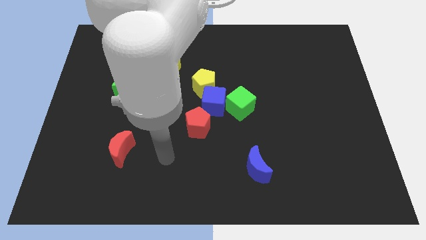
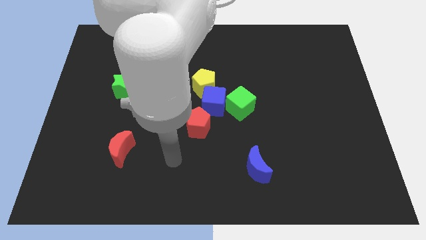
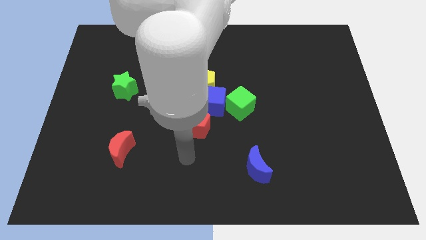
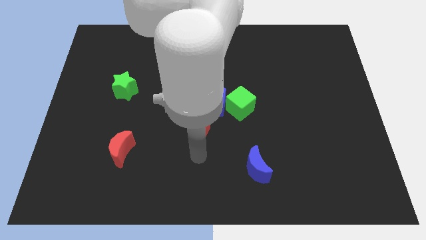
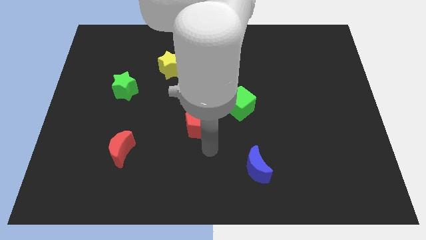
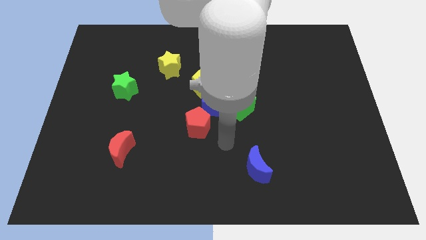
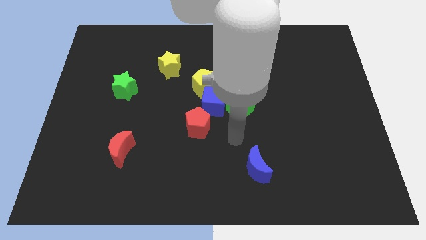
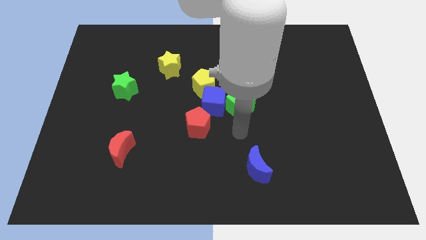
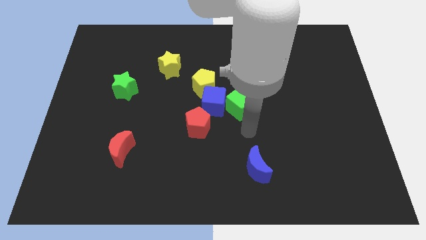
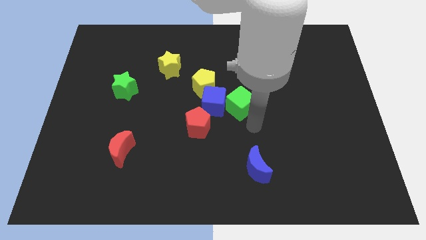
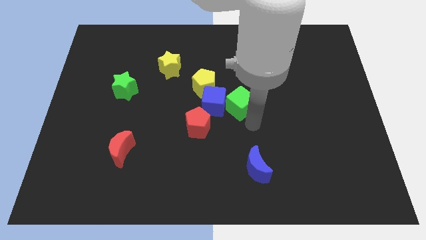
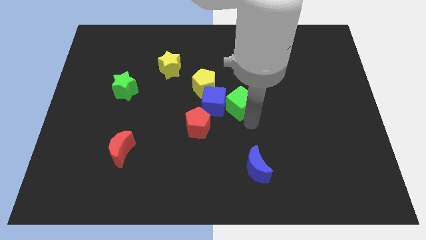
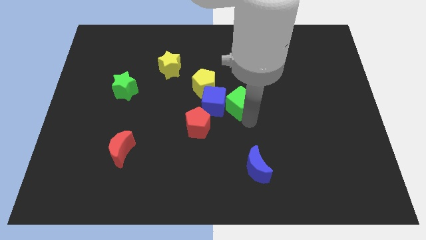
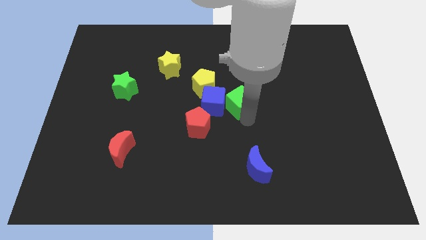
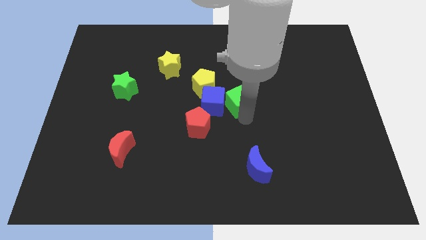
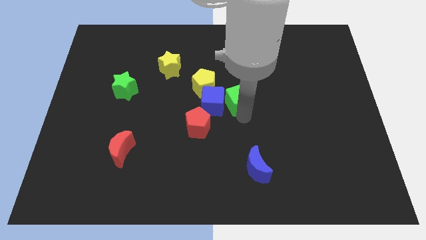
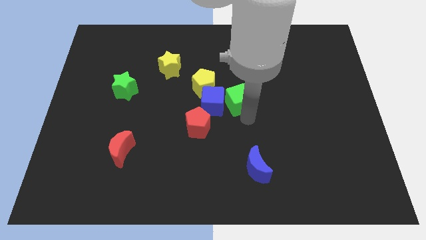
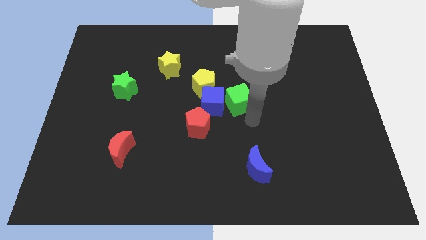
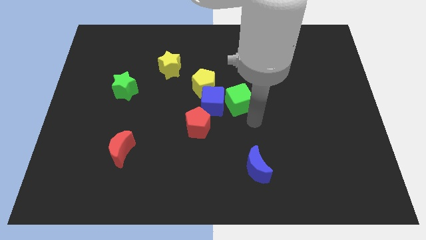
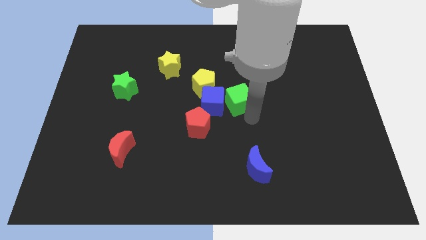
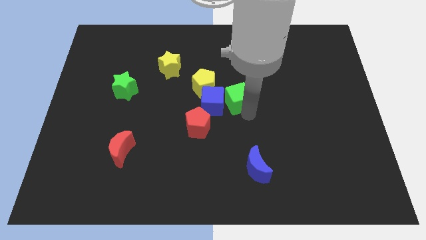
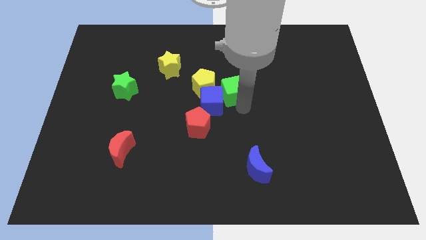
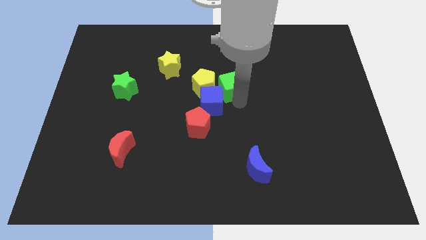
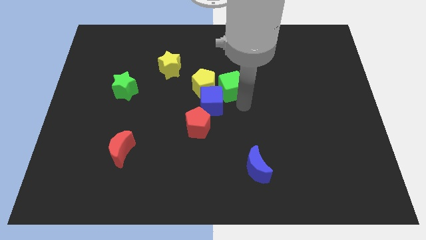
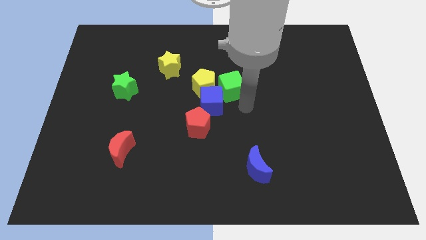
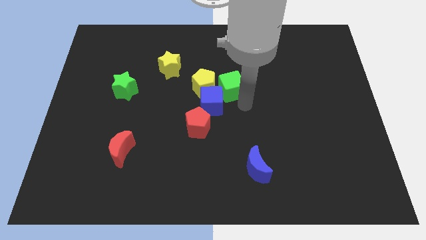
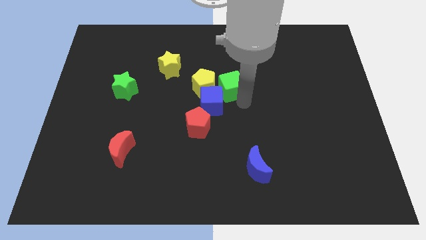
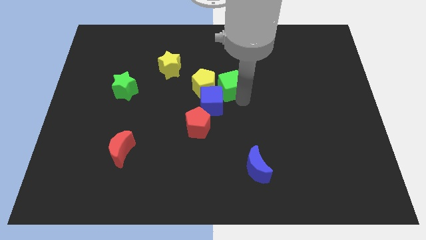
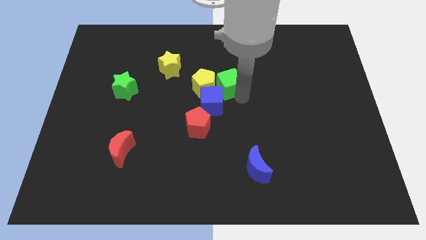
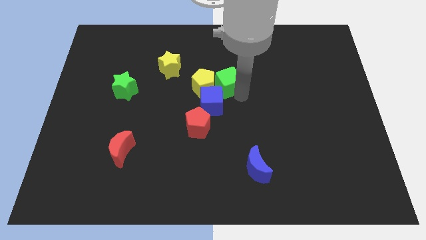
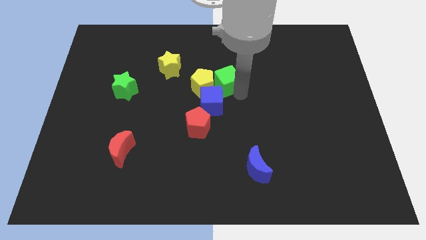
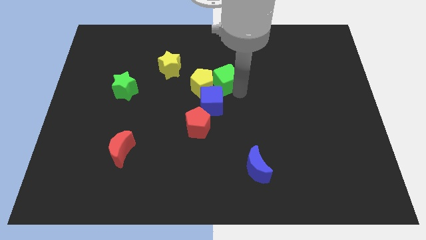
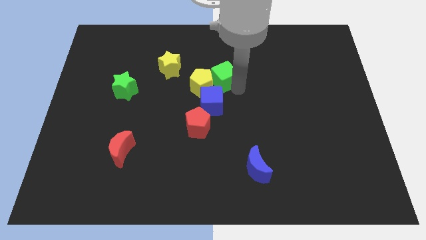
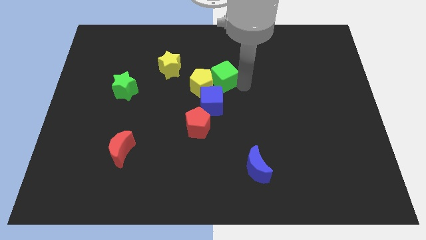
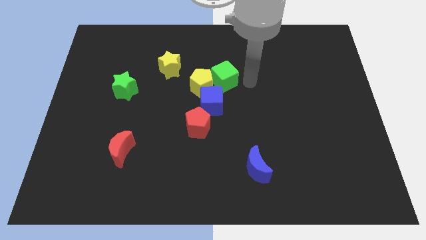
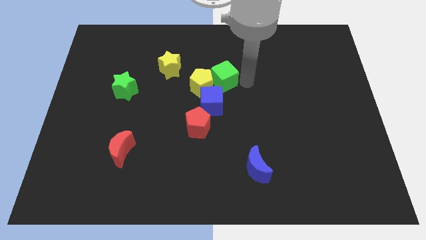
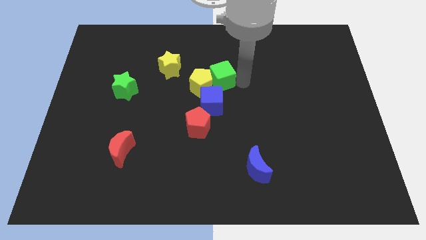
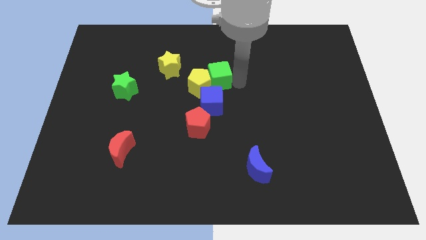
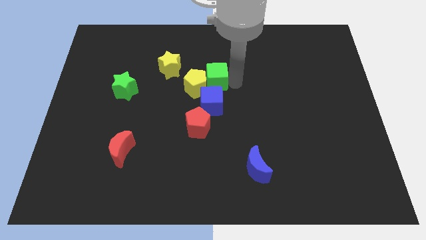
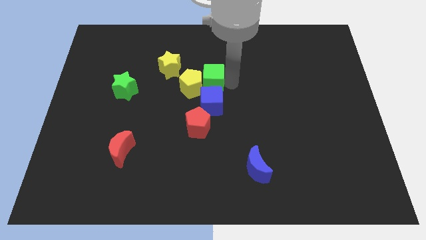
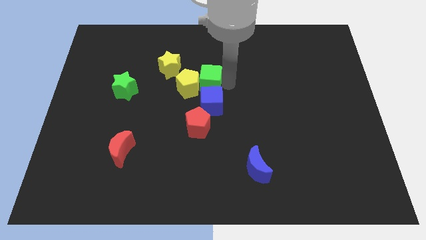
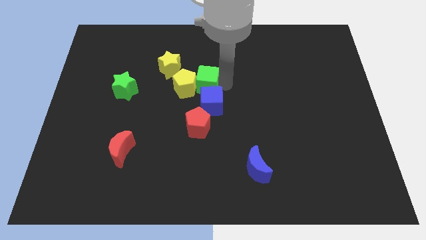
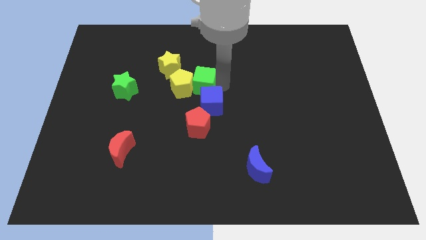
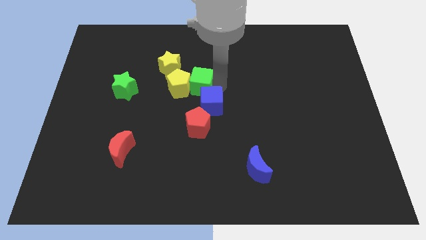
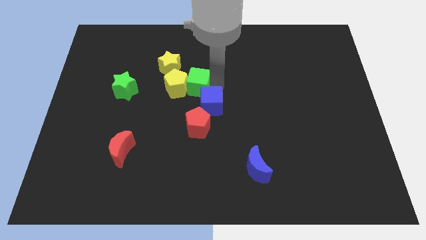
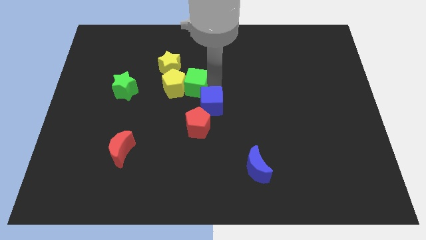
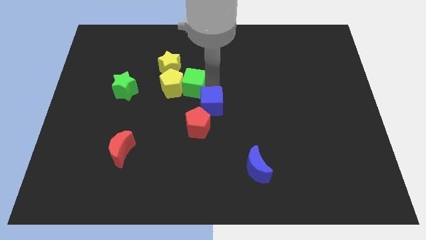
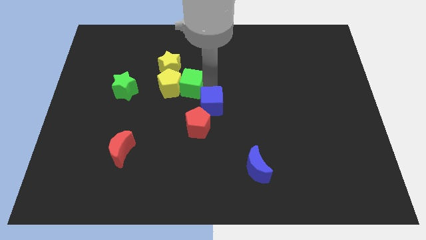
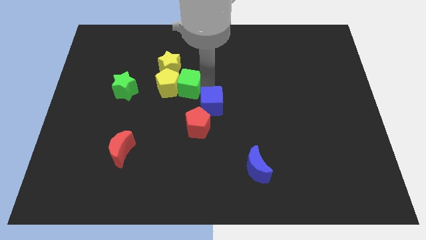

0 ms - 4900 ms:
move the green cube to the bottom of the yellow star

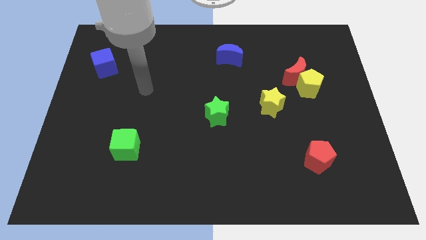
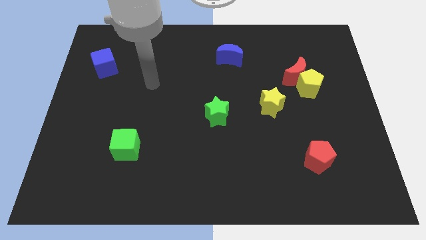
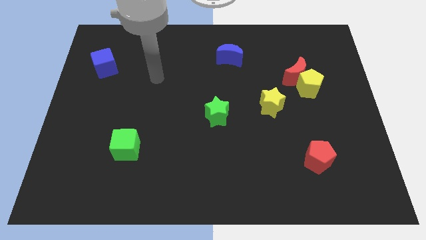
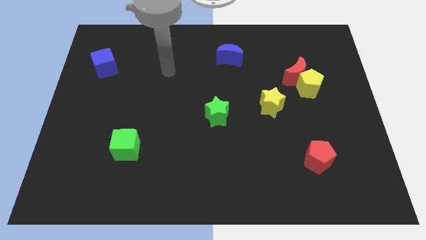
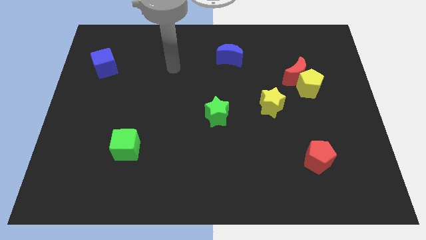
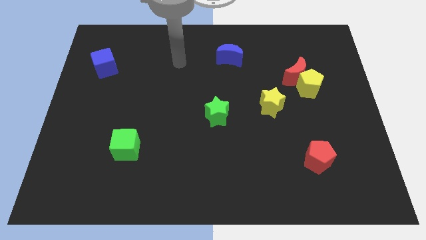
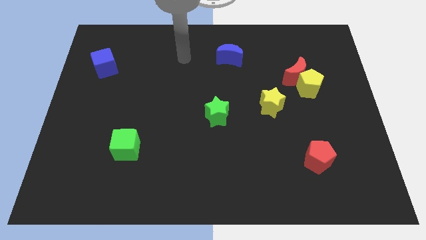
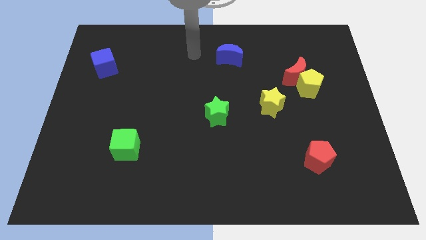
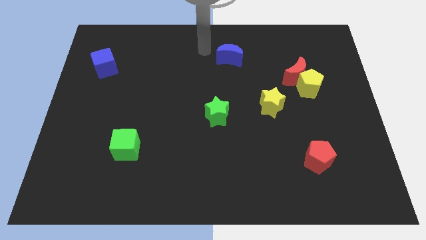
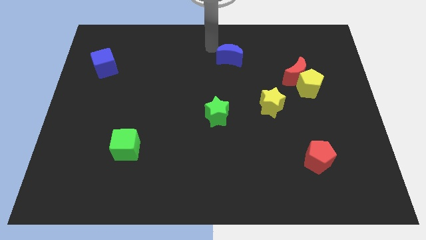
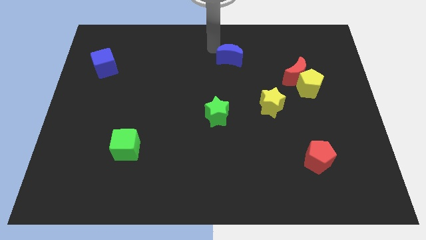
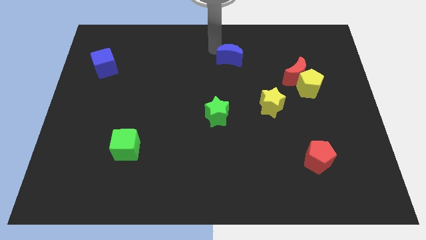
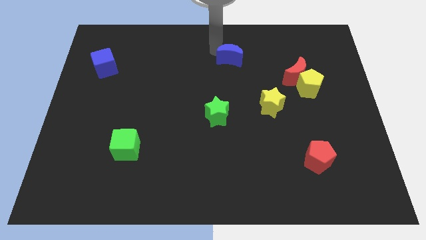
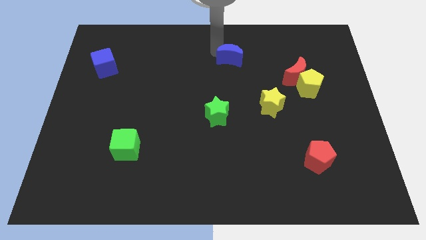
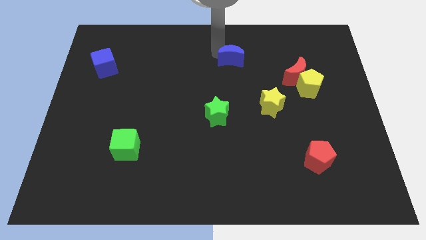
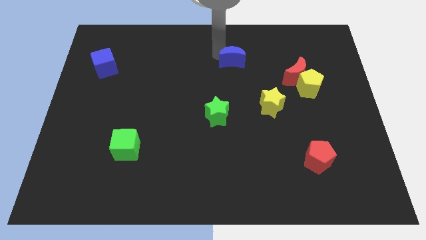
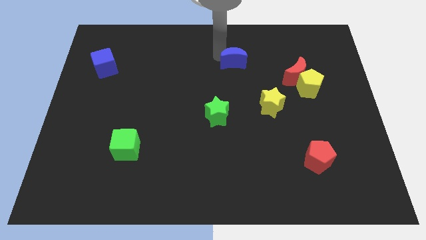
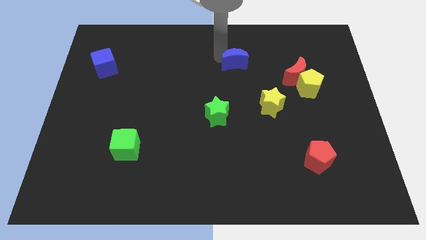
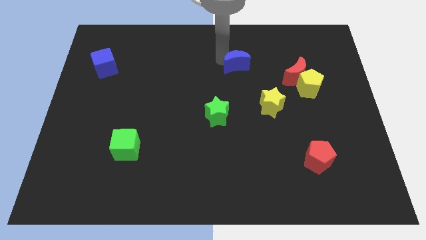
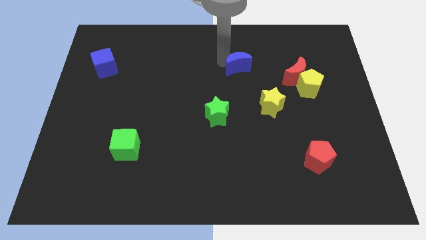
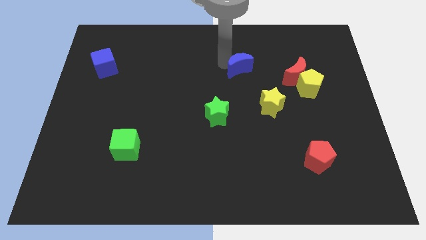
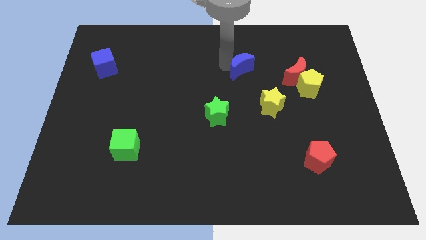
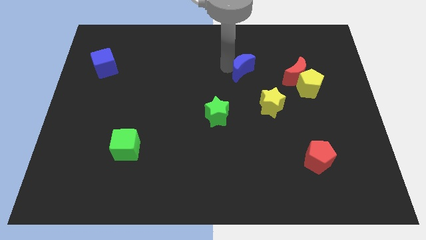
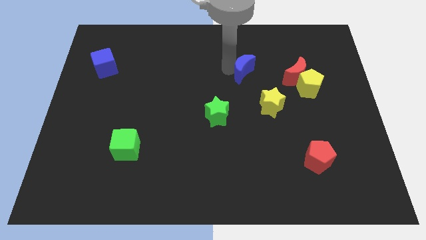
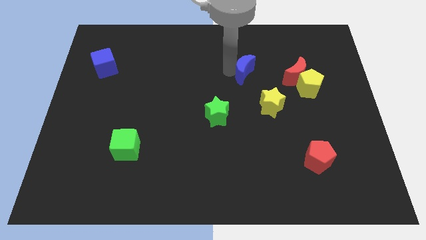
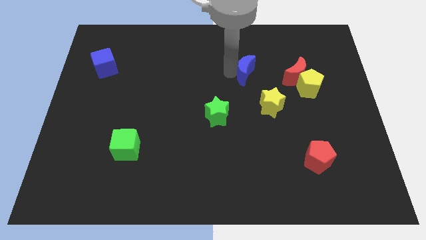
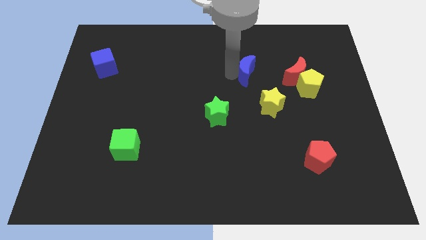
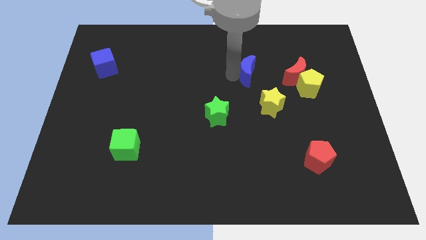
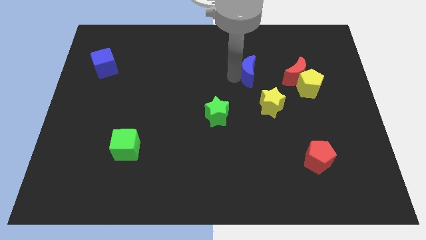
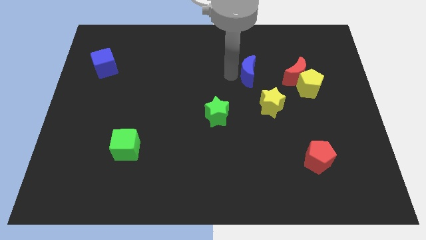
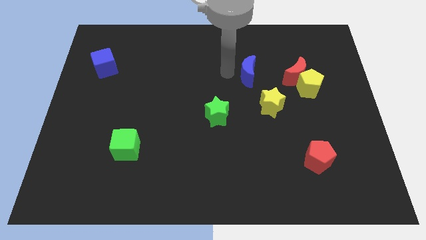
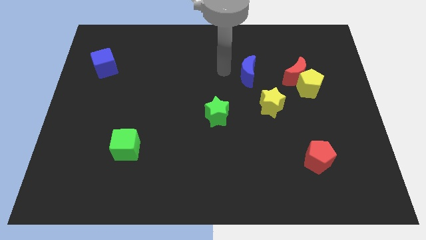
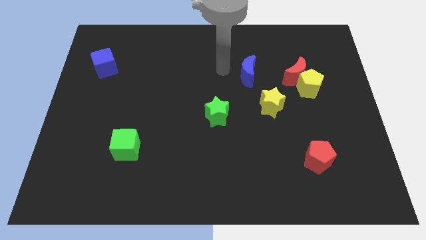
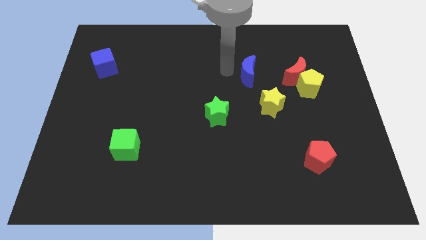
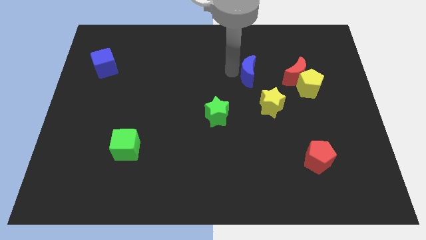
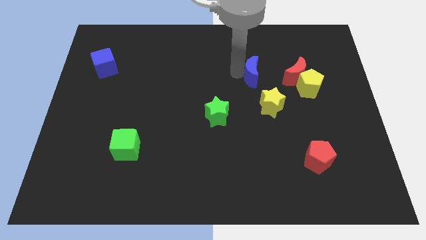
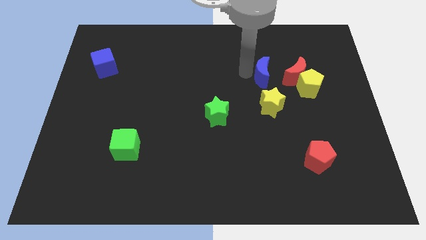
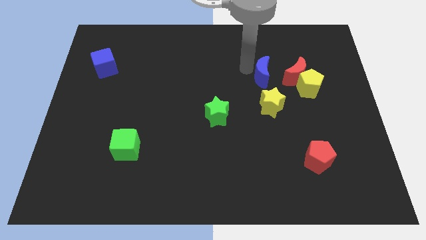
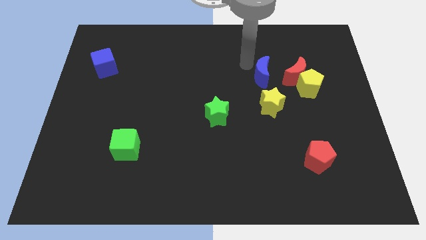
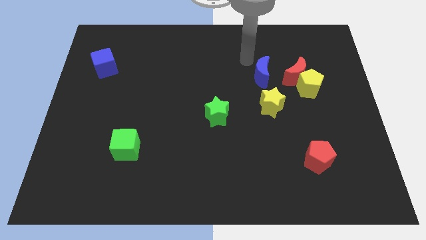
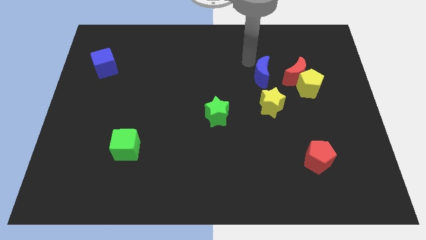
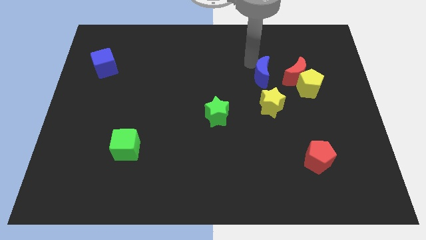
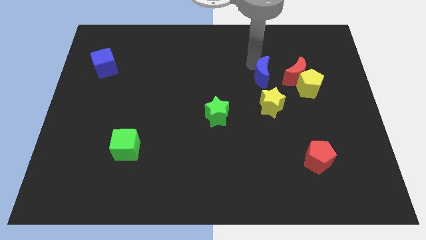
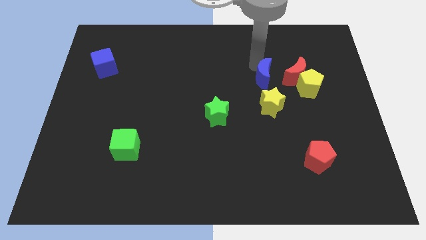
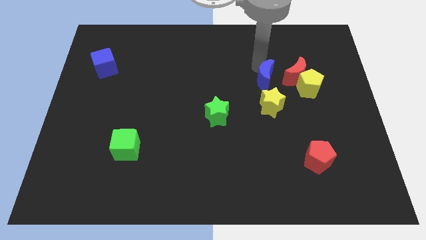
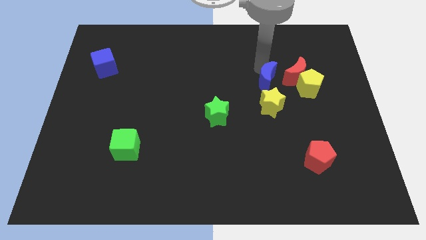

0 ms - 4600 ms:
move the blue moon to the bottom left of the red moon
